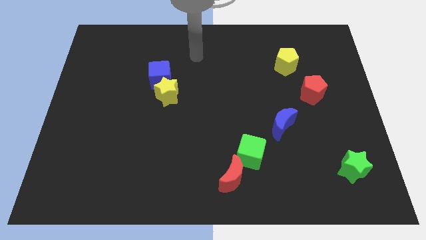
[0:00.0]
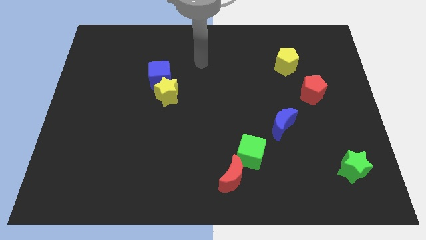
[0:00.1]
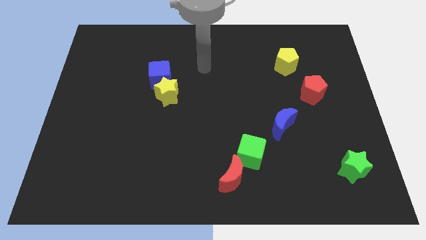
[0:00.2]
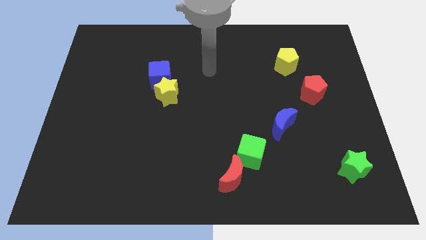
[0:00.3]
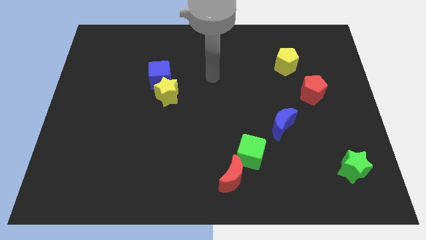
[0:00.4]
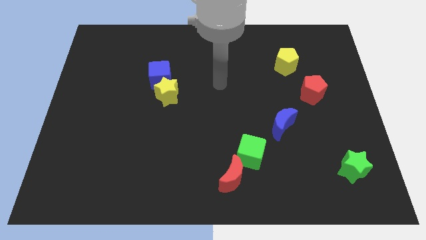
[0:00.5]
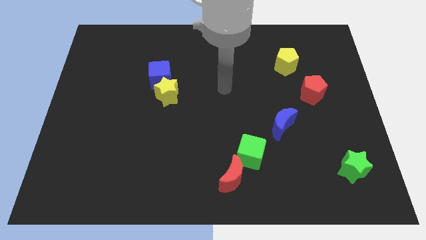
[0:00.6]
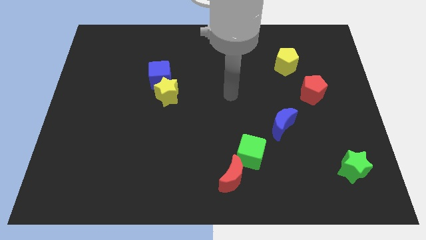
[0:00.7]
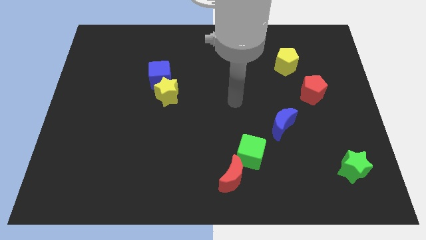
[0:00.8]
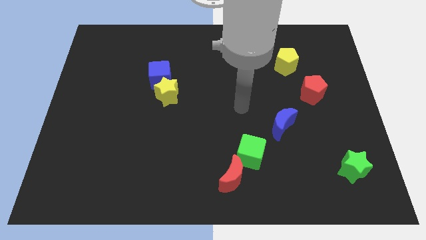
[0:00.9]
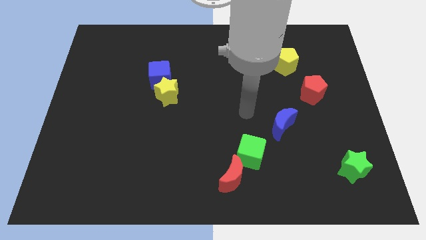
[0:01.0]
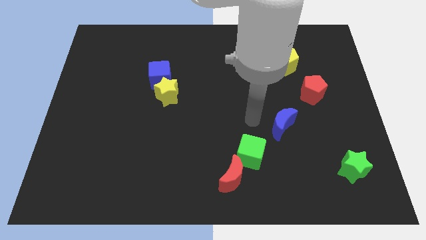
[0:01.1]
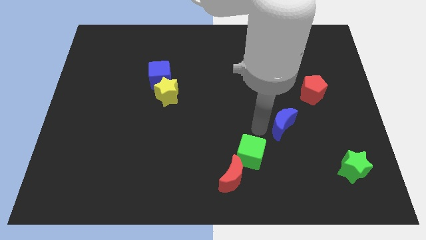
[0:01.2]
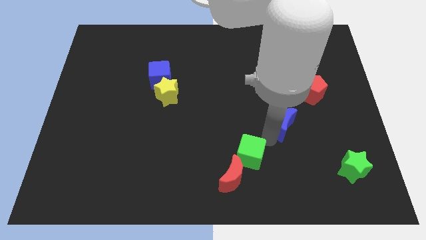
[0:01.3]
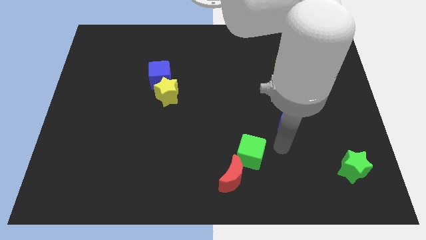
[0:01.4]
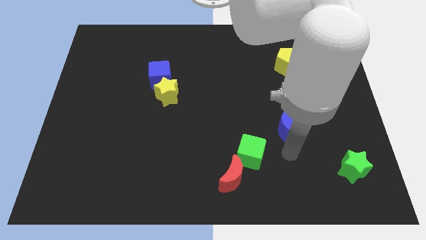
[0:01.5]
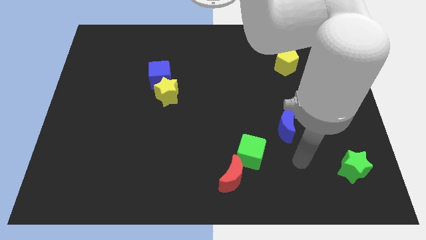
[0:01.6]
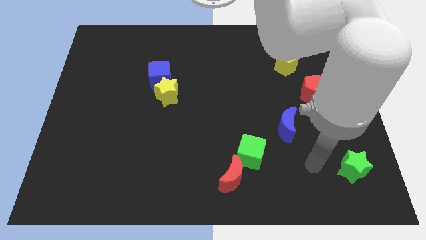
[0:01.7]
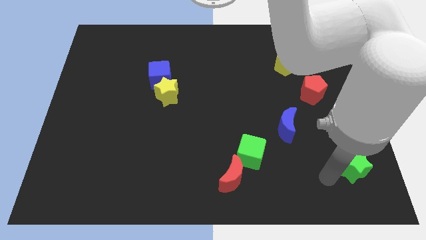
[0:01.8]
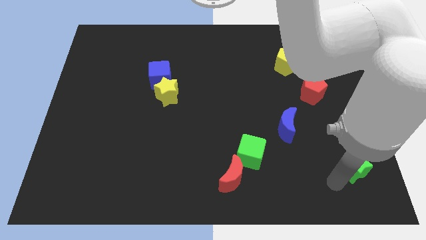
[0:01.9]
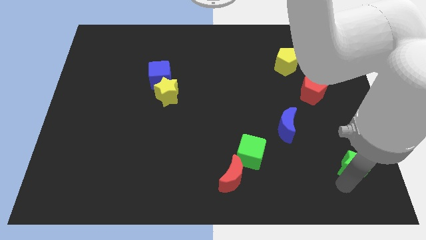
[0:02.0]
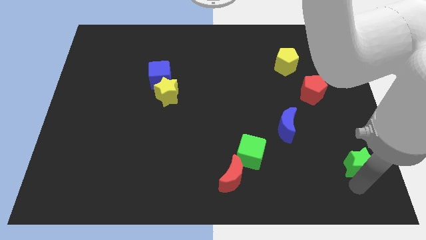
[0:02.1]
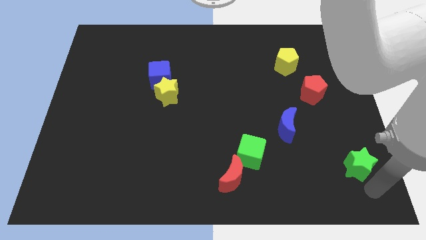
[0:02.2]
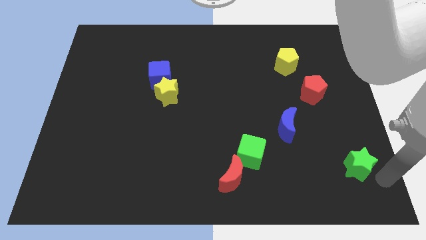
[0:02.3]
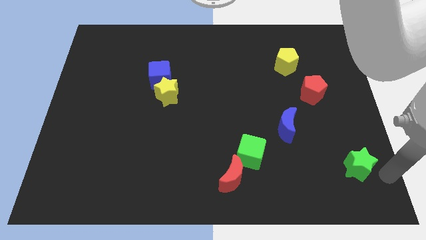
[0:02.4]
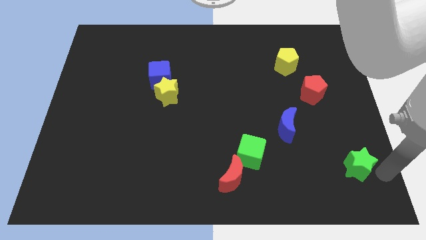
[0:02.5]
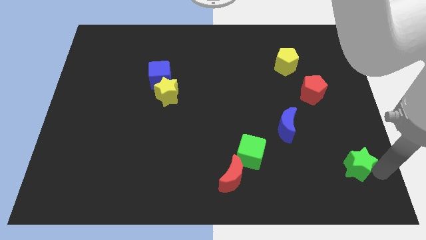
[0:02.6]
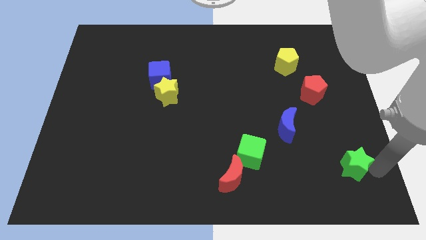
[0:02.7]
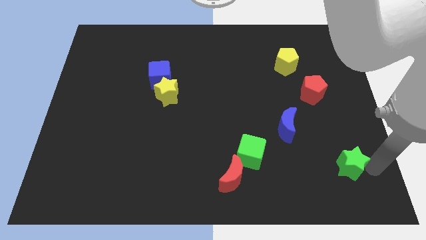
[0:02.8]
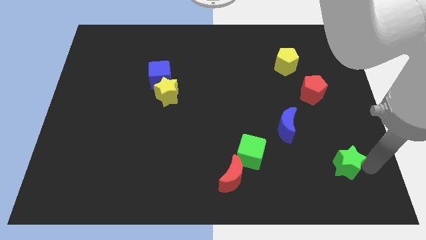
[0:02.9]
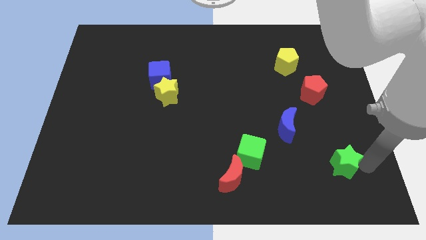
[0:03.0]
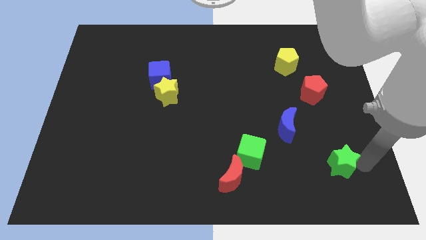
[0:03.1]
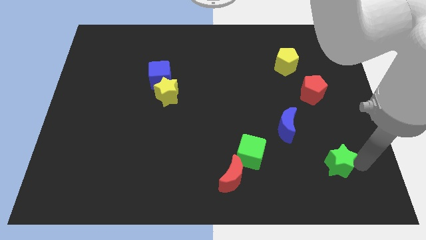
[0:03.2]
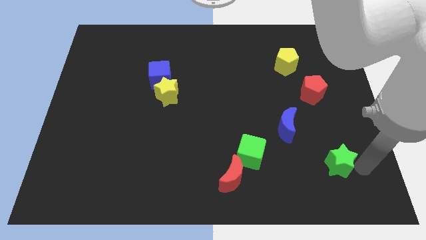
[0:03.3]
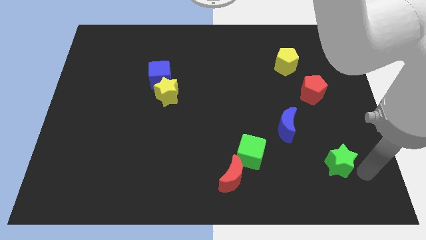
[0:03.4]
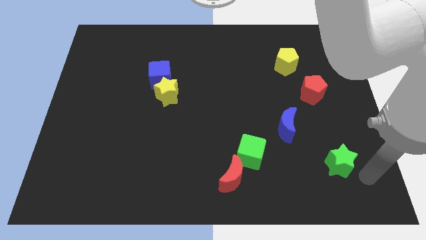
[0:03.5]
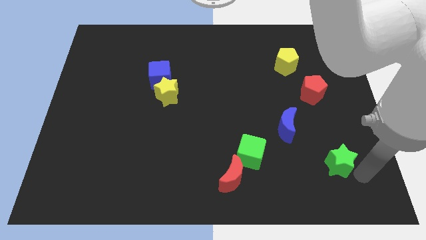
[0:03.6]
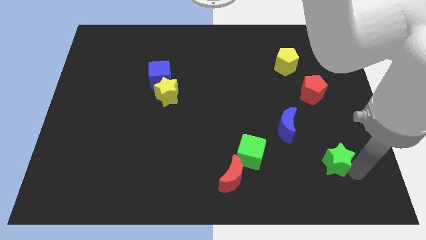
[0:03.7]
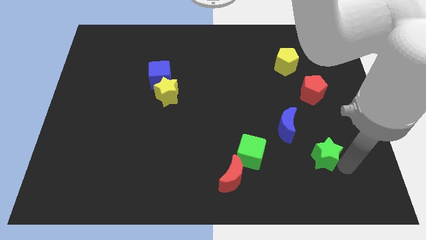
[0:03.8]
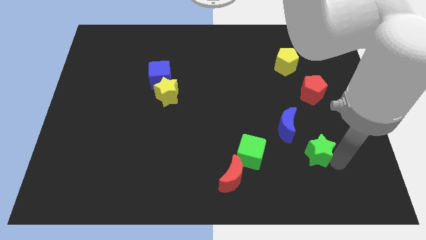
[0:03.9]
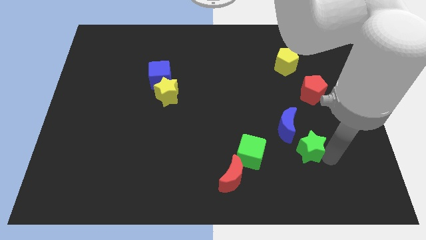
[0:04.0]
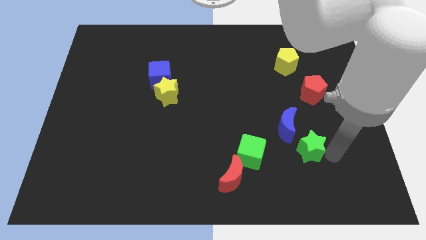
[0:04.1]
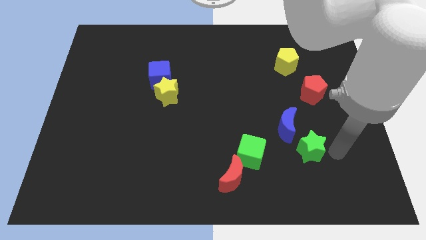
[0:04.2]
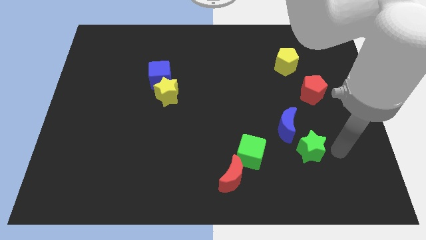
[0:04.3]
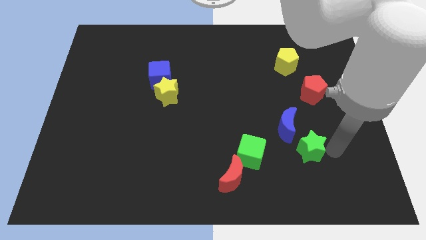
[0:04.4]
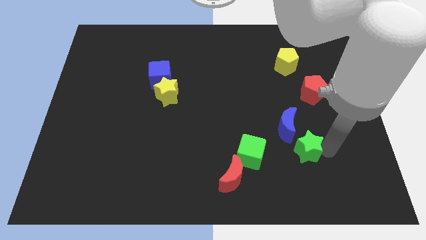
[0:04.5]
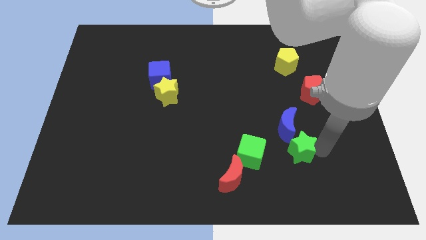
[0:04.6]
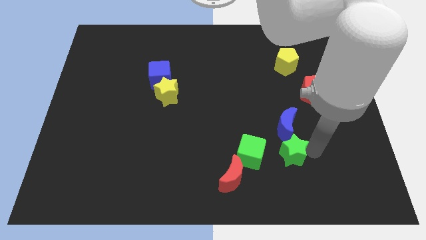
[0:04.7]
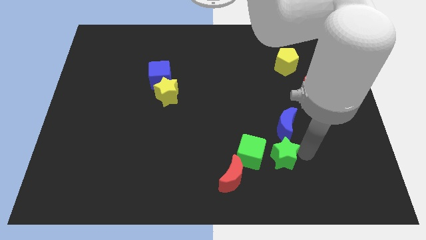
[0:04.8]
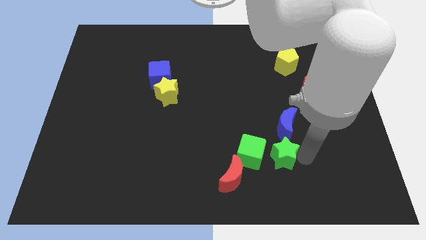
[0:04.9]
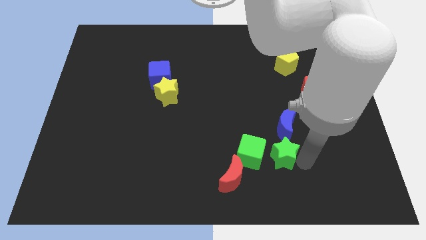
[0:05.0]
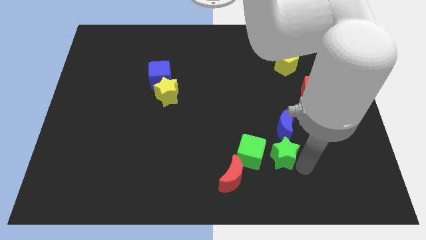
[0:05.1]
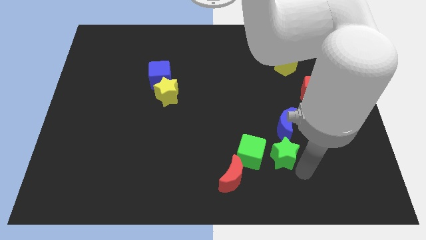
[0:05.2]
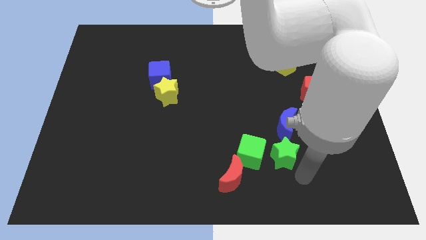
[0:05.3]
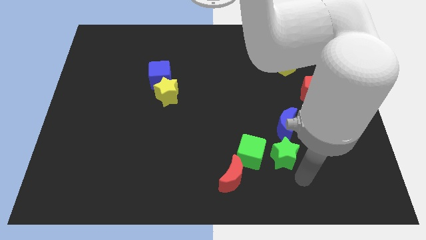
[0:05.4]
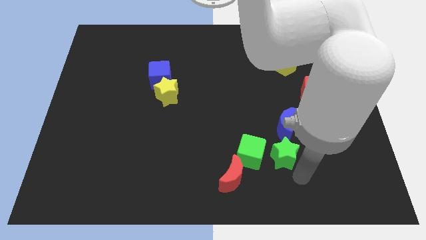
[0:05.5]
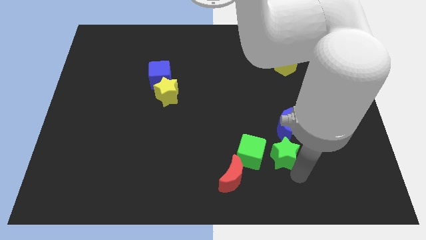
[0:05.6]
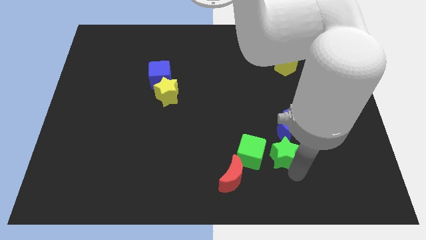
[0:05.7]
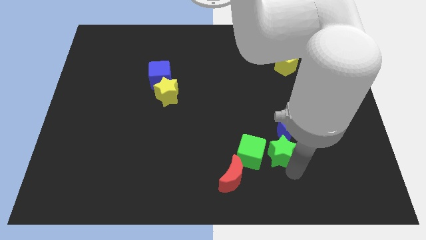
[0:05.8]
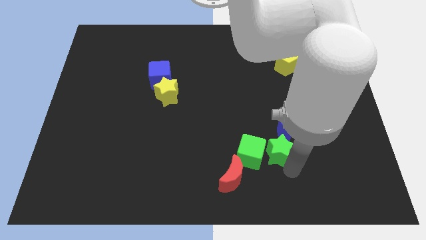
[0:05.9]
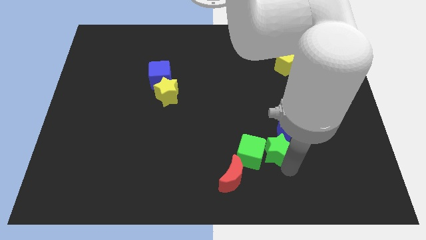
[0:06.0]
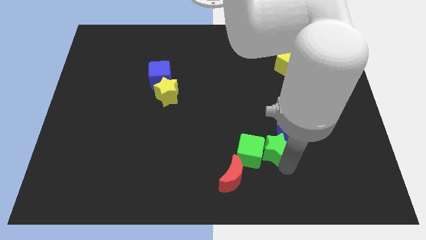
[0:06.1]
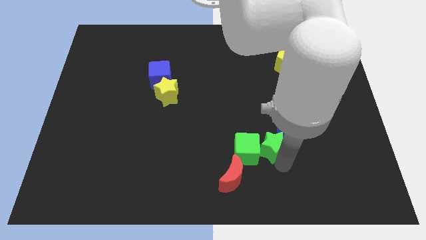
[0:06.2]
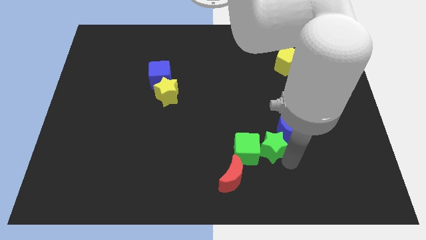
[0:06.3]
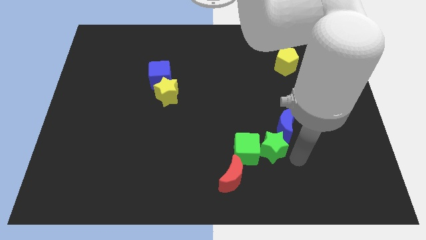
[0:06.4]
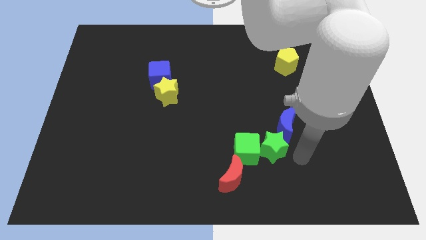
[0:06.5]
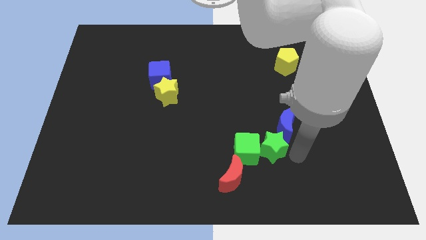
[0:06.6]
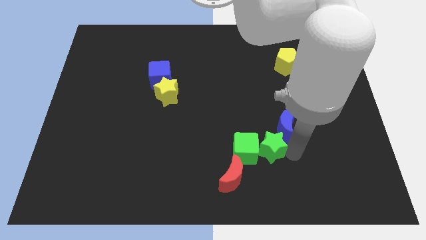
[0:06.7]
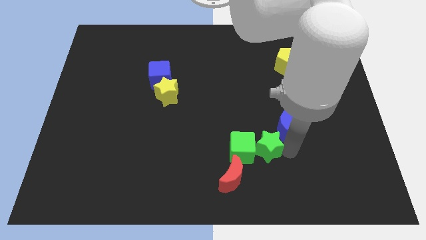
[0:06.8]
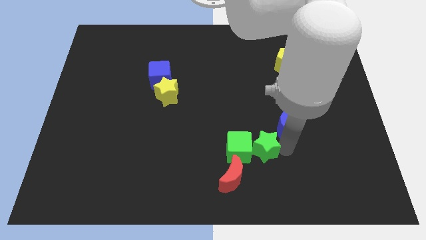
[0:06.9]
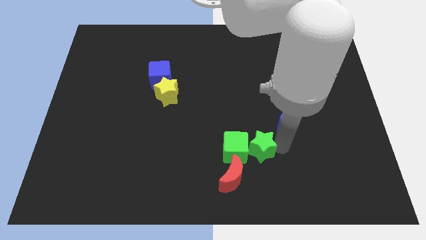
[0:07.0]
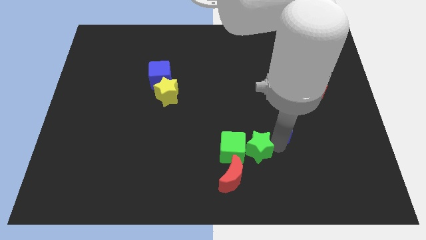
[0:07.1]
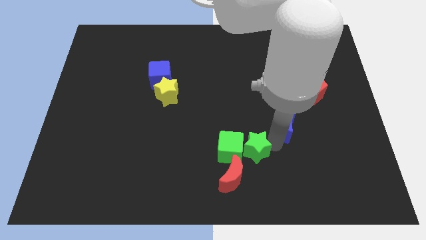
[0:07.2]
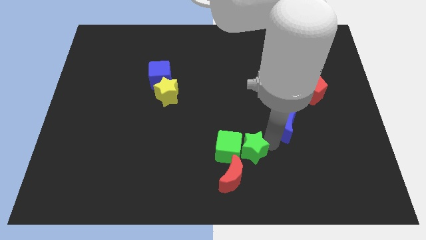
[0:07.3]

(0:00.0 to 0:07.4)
put the green star above the red moon

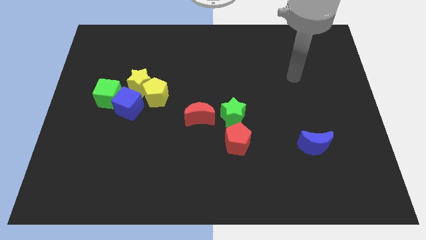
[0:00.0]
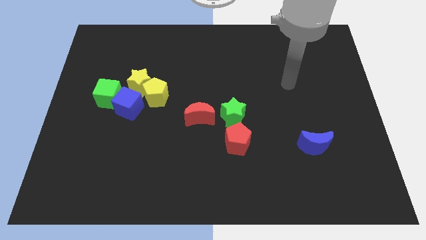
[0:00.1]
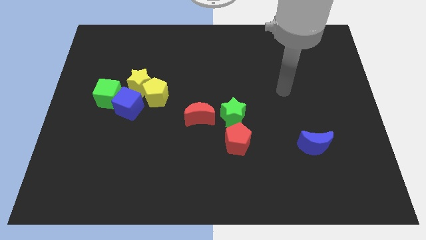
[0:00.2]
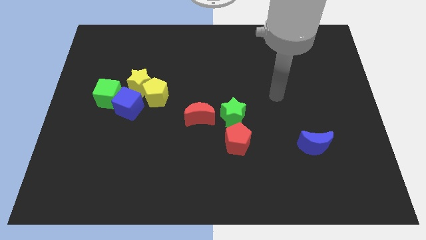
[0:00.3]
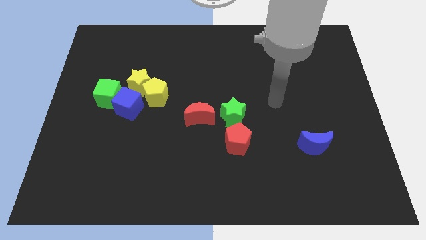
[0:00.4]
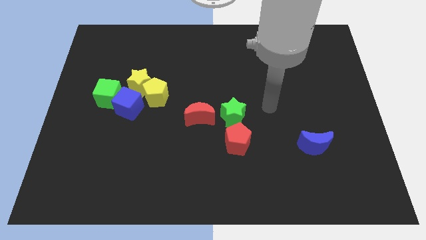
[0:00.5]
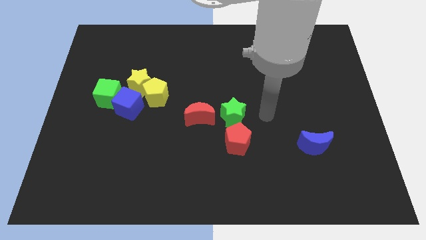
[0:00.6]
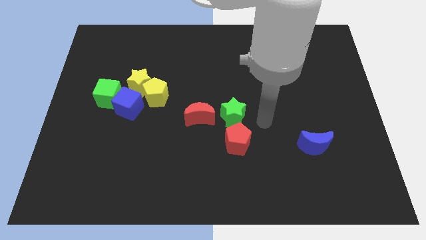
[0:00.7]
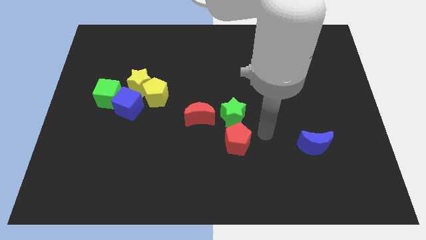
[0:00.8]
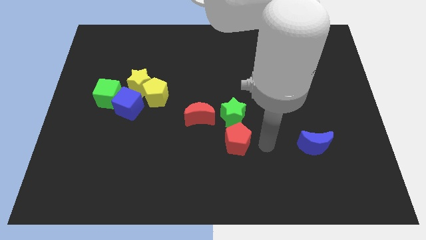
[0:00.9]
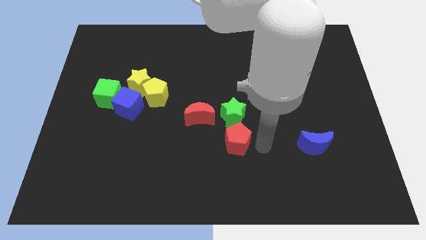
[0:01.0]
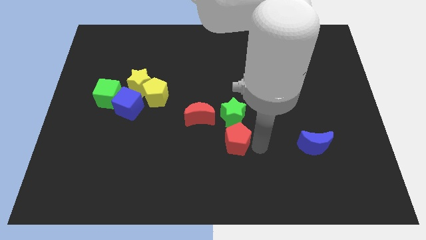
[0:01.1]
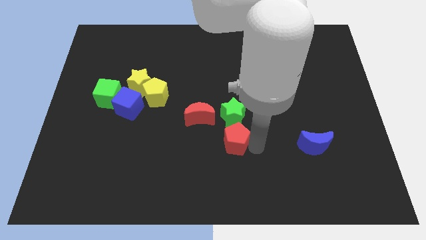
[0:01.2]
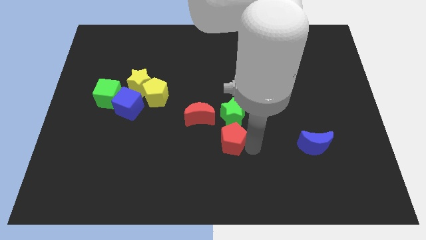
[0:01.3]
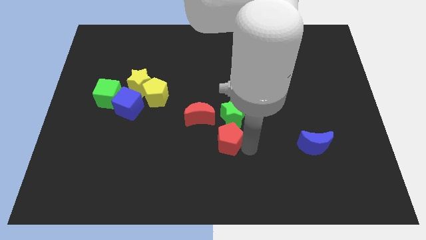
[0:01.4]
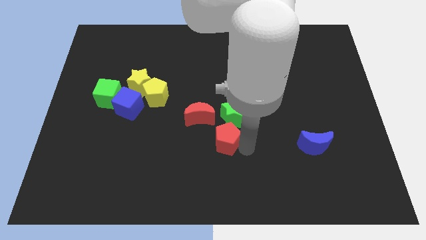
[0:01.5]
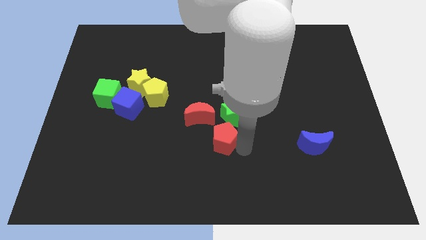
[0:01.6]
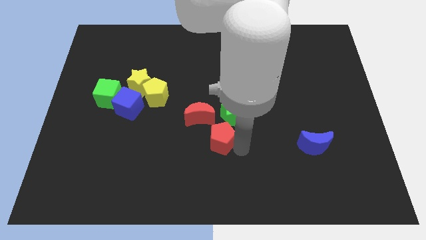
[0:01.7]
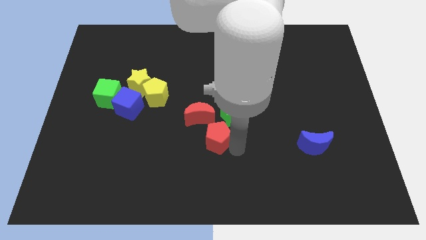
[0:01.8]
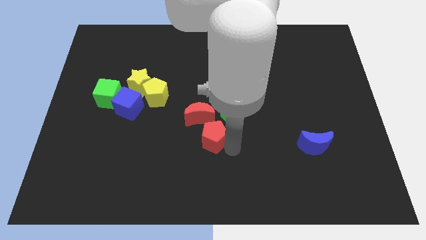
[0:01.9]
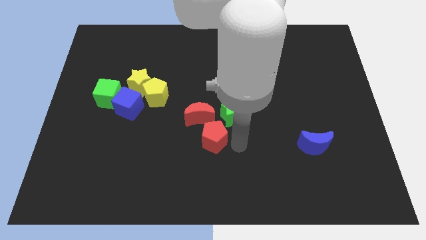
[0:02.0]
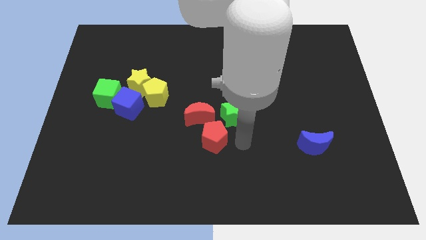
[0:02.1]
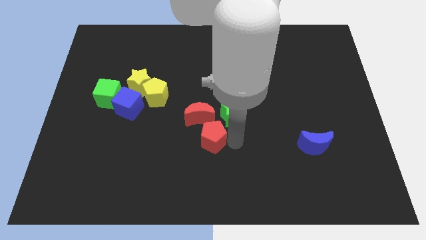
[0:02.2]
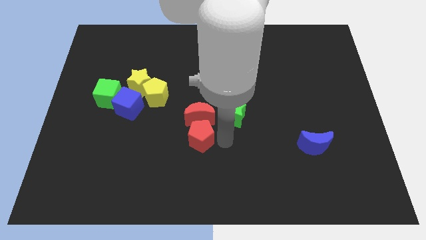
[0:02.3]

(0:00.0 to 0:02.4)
move the red pentagon to the bottom left of the red moon
